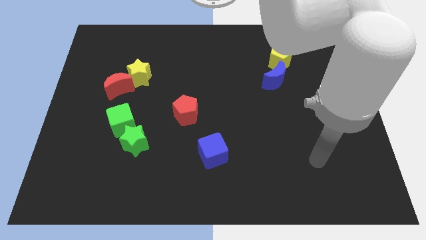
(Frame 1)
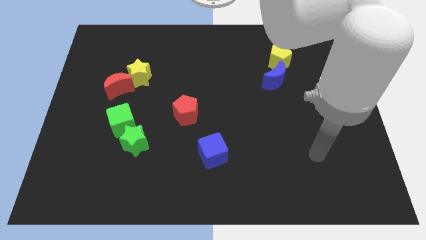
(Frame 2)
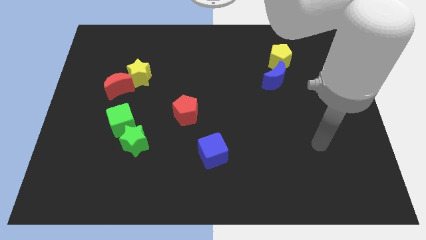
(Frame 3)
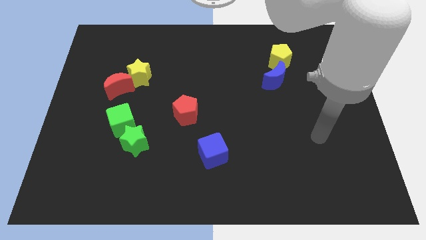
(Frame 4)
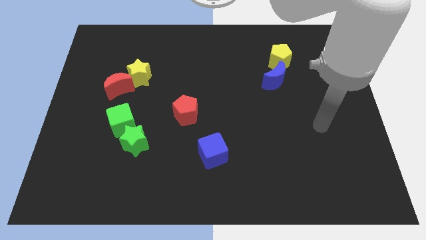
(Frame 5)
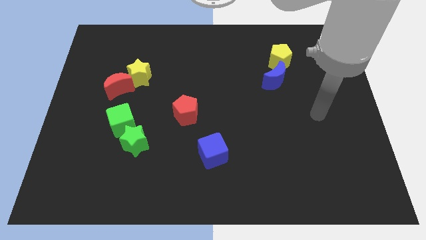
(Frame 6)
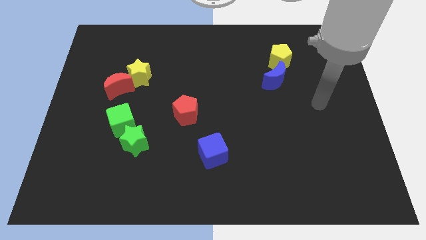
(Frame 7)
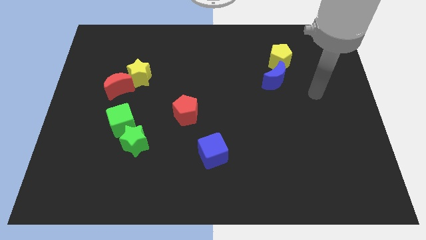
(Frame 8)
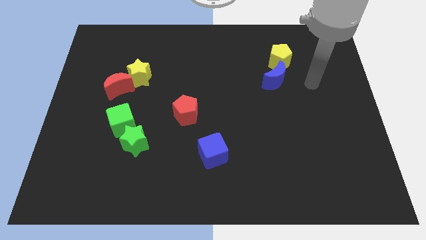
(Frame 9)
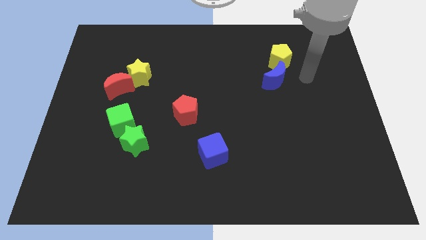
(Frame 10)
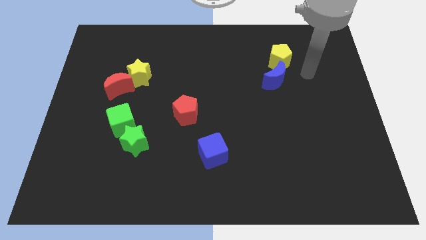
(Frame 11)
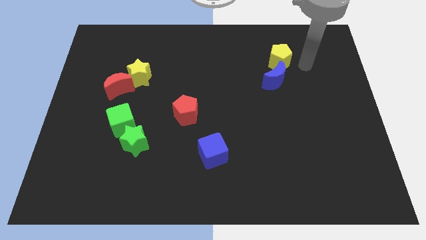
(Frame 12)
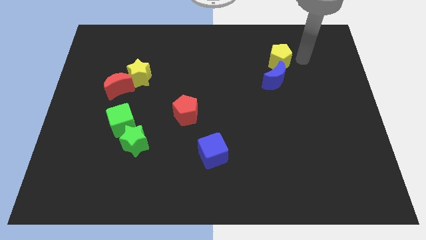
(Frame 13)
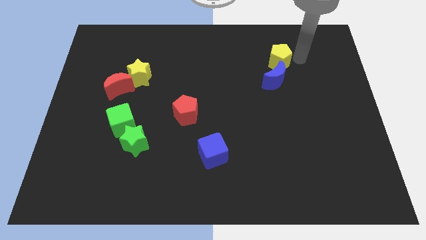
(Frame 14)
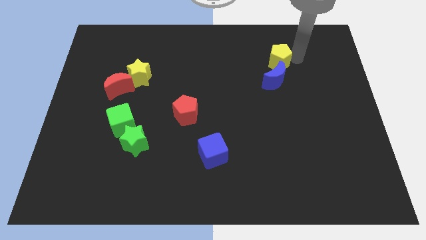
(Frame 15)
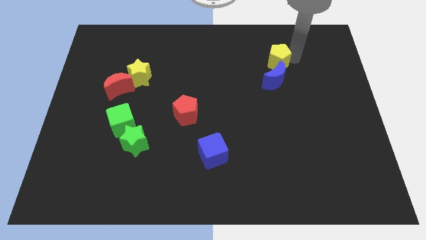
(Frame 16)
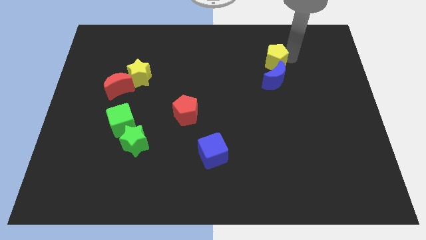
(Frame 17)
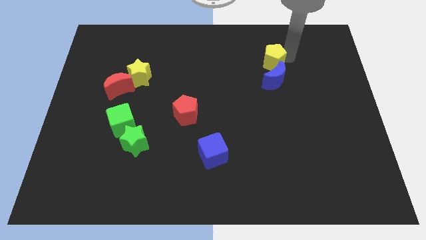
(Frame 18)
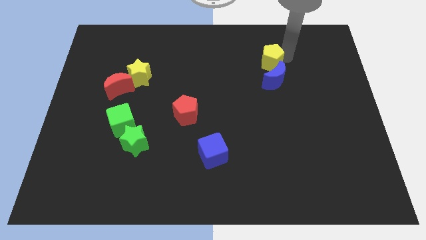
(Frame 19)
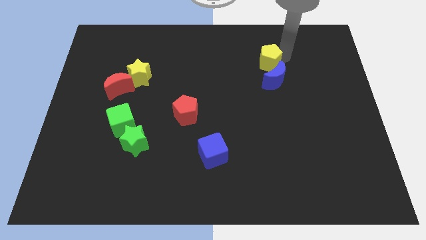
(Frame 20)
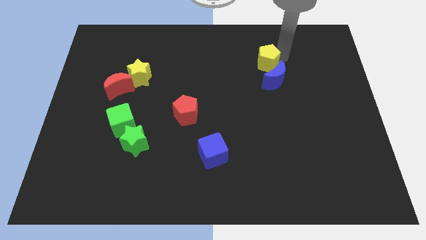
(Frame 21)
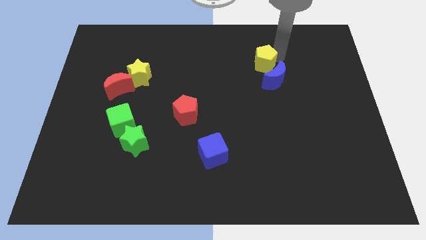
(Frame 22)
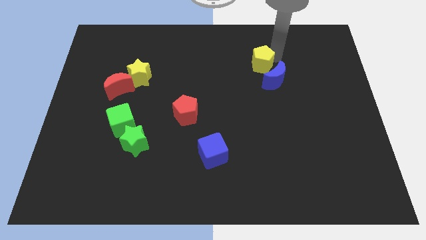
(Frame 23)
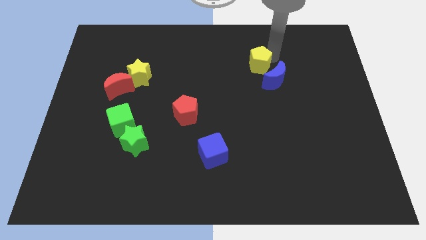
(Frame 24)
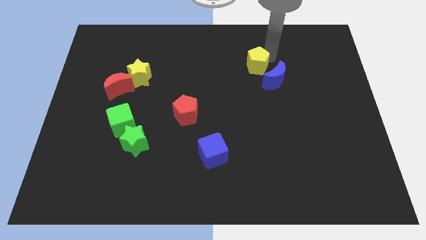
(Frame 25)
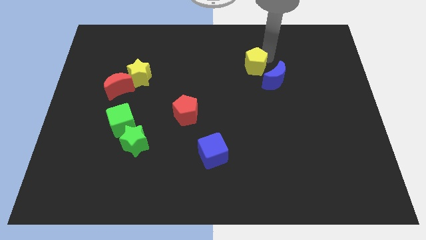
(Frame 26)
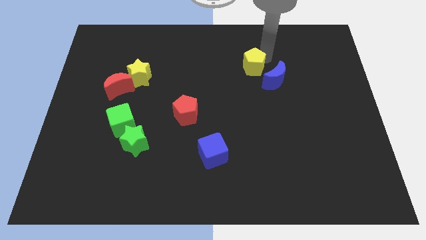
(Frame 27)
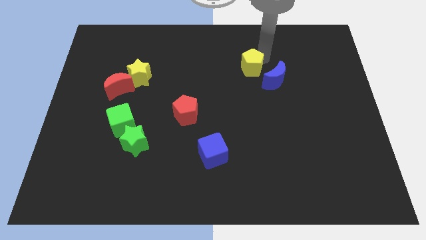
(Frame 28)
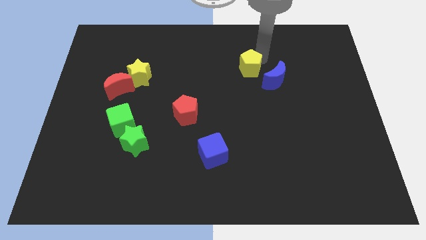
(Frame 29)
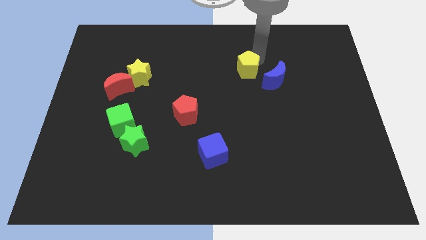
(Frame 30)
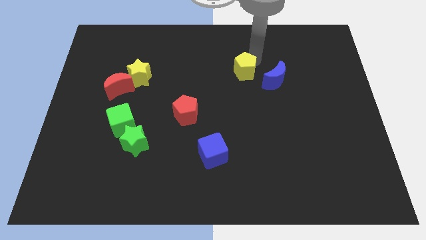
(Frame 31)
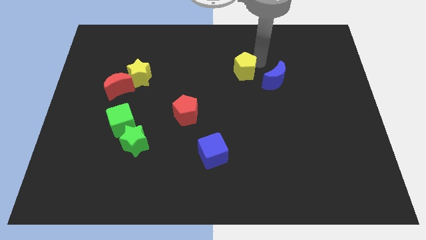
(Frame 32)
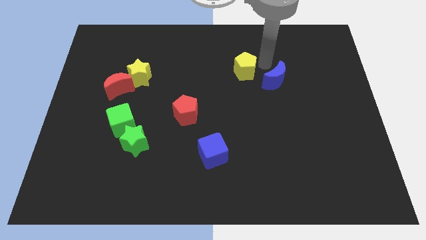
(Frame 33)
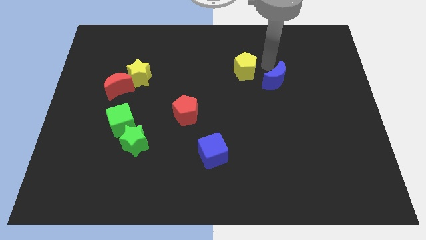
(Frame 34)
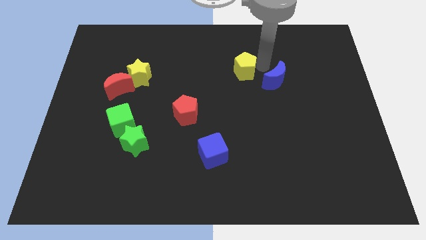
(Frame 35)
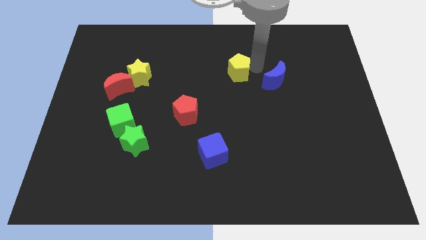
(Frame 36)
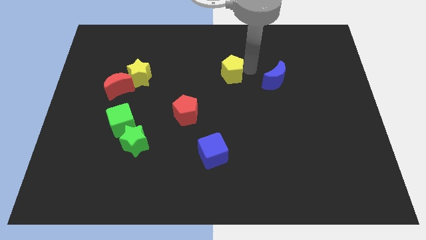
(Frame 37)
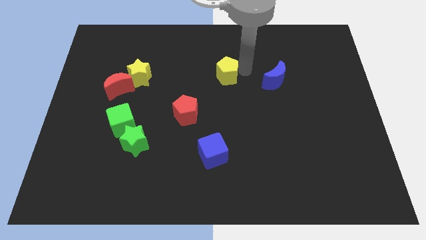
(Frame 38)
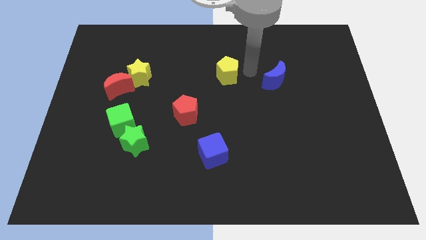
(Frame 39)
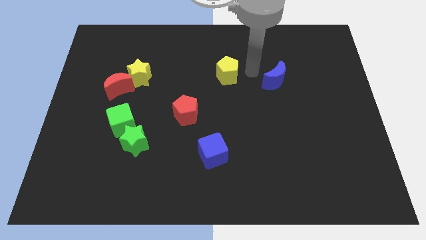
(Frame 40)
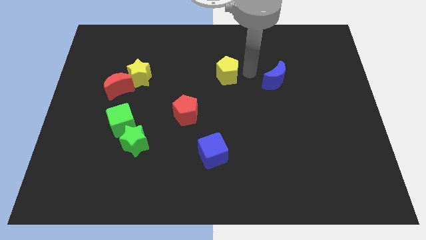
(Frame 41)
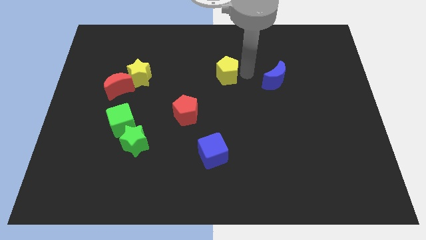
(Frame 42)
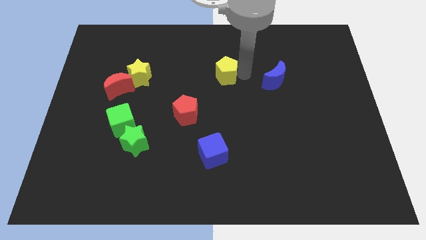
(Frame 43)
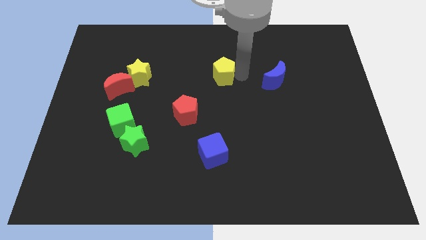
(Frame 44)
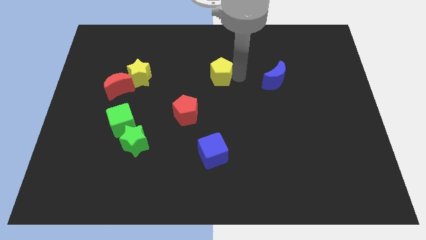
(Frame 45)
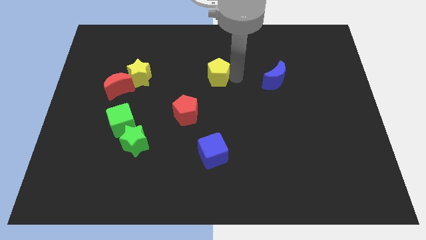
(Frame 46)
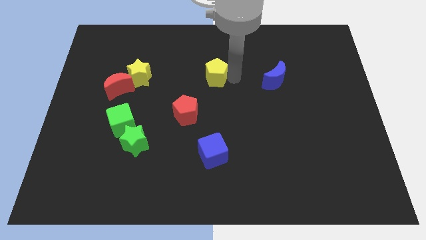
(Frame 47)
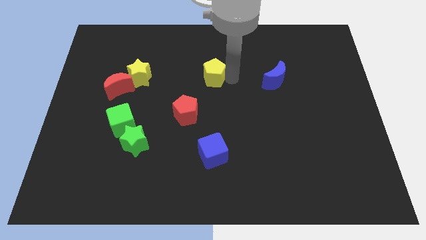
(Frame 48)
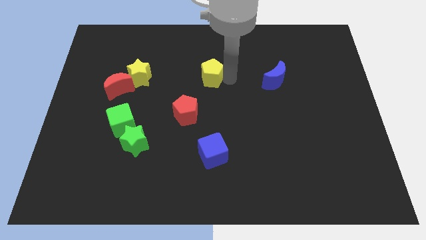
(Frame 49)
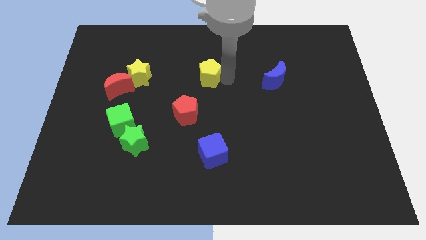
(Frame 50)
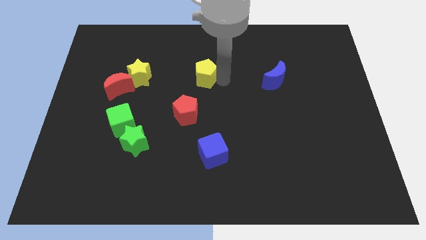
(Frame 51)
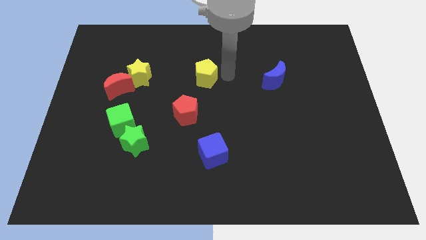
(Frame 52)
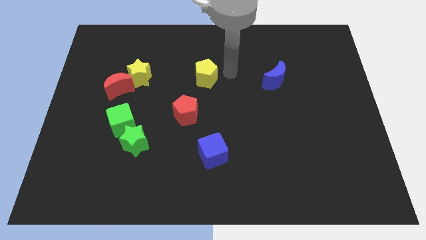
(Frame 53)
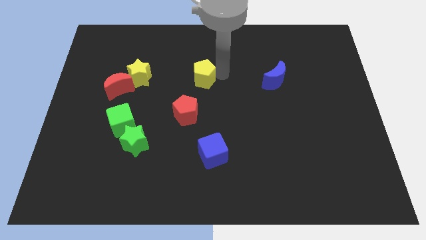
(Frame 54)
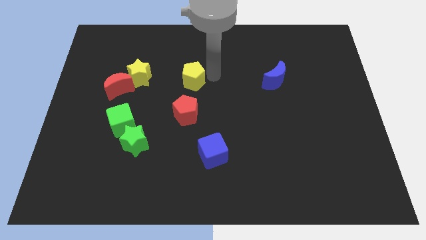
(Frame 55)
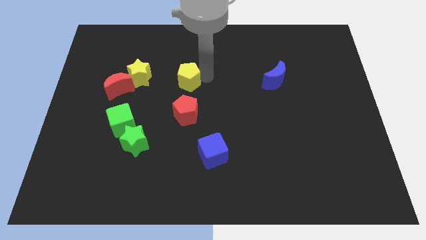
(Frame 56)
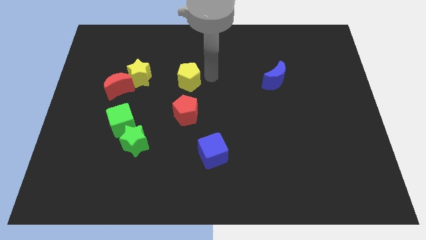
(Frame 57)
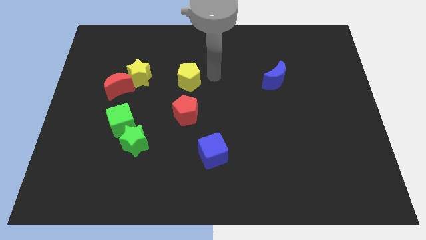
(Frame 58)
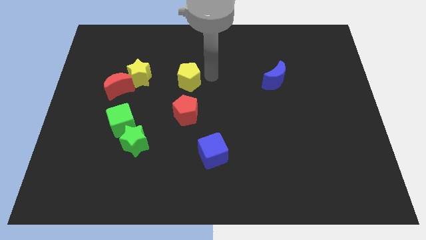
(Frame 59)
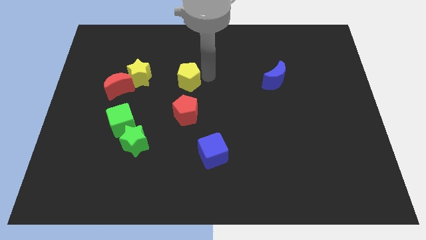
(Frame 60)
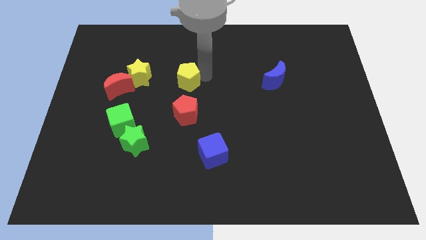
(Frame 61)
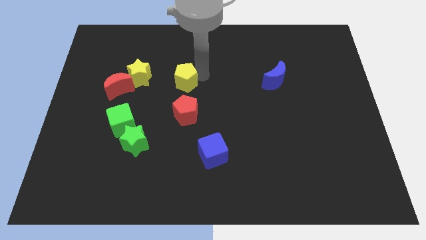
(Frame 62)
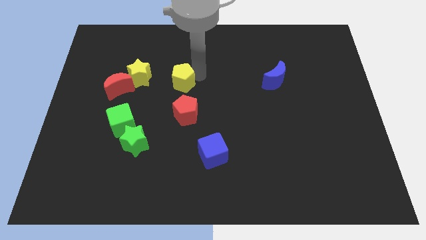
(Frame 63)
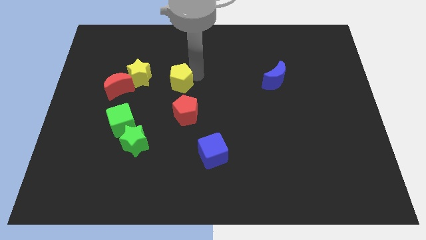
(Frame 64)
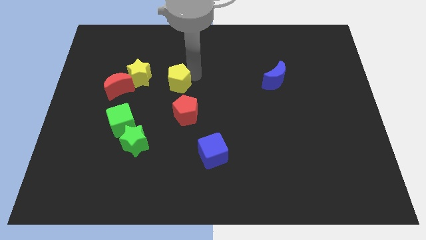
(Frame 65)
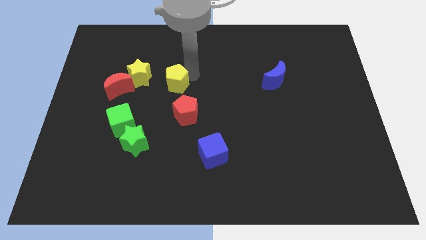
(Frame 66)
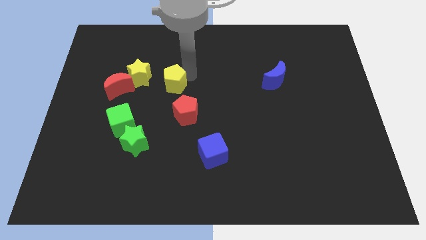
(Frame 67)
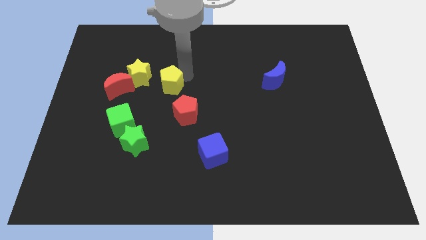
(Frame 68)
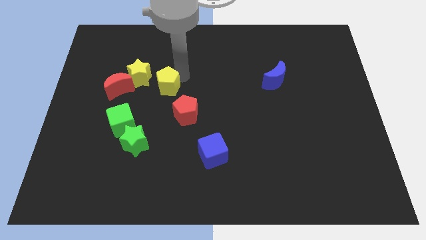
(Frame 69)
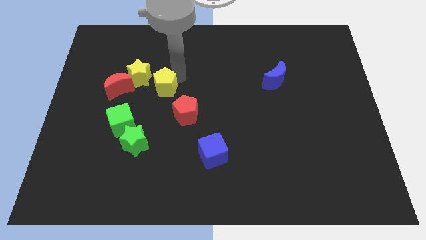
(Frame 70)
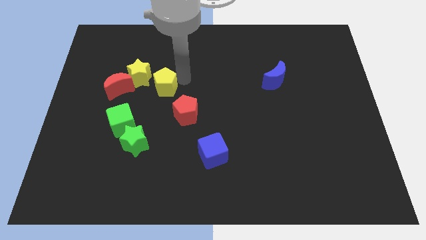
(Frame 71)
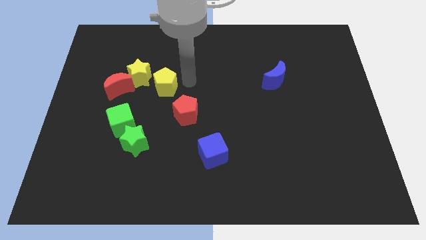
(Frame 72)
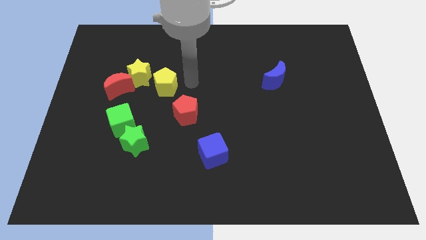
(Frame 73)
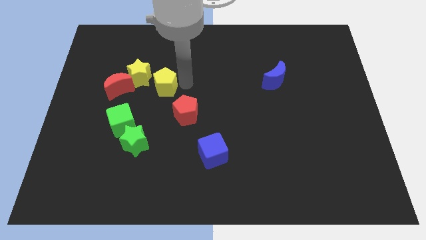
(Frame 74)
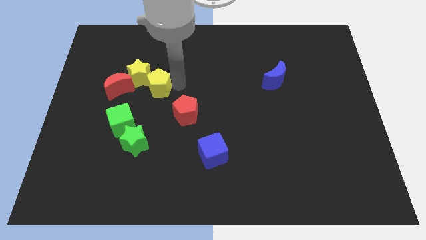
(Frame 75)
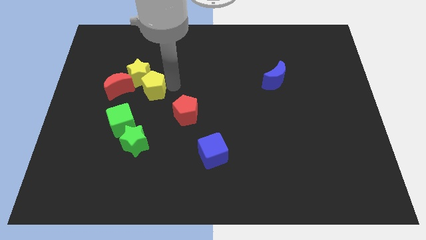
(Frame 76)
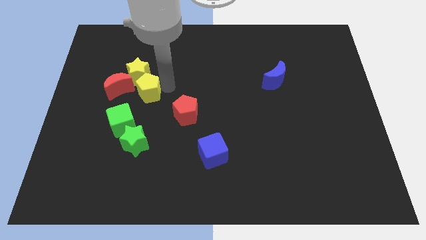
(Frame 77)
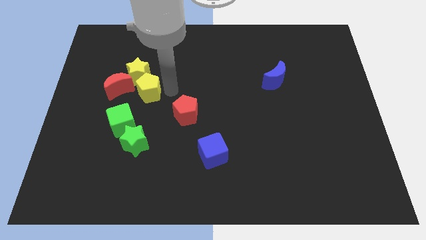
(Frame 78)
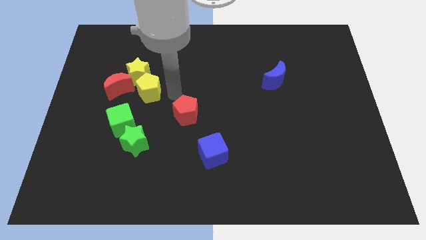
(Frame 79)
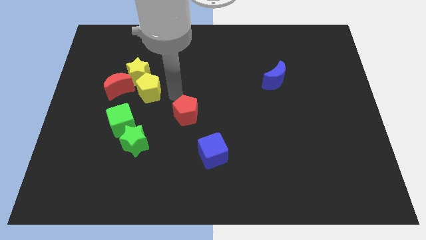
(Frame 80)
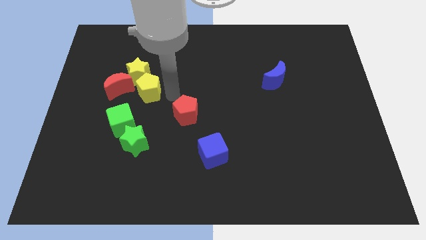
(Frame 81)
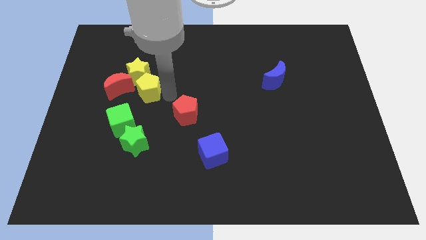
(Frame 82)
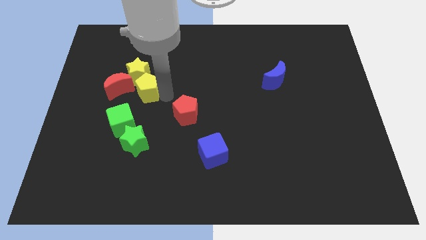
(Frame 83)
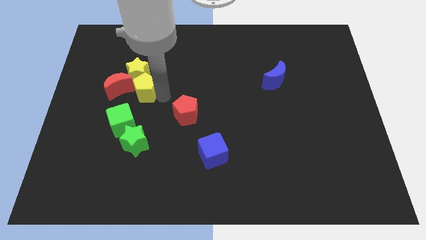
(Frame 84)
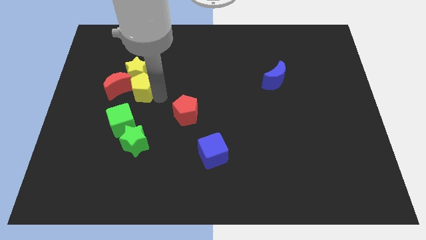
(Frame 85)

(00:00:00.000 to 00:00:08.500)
move the yellow pentagon next to the red moon
